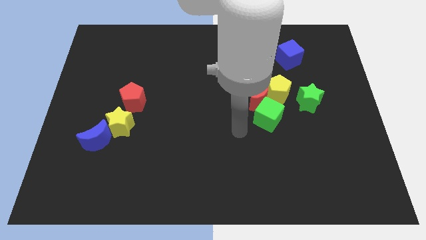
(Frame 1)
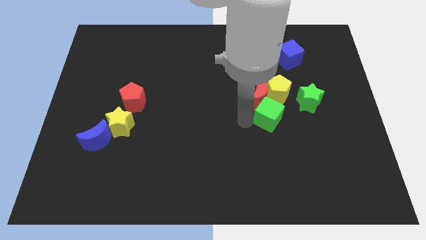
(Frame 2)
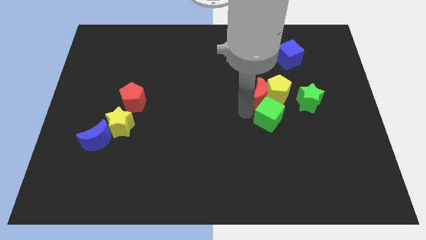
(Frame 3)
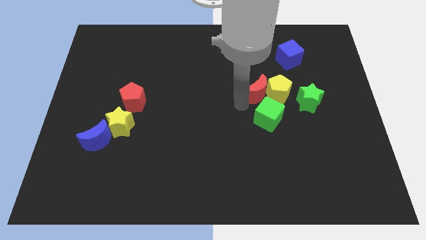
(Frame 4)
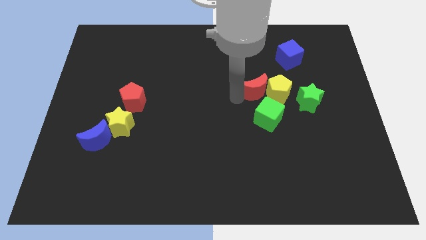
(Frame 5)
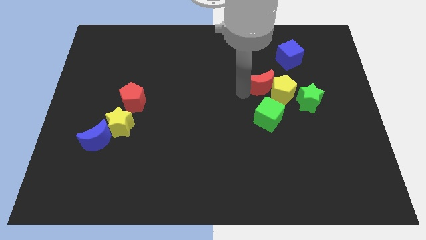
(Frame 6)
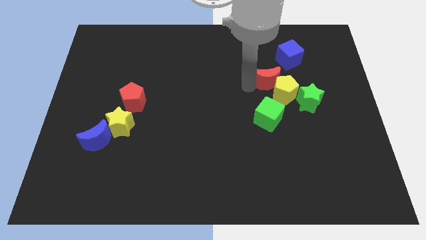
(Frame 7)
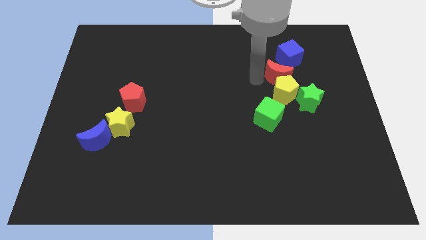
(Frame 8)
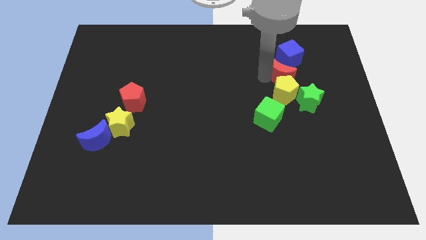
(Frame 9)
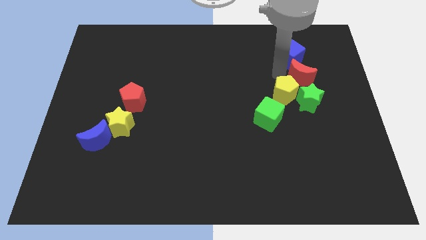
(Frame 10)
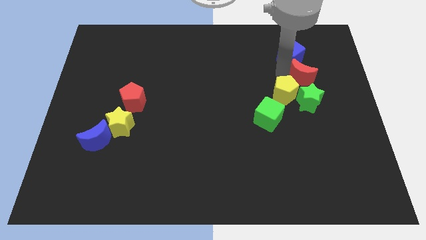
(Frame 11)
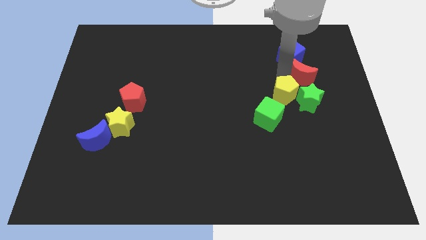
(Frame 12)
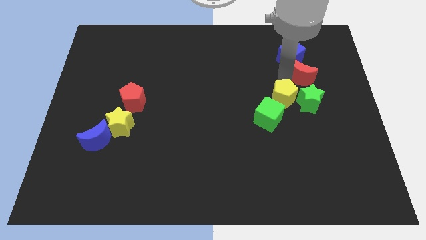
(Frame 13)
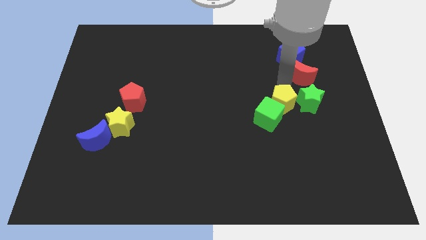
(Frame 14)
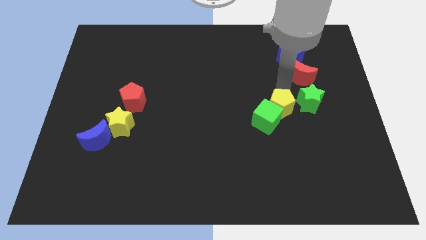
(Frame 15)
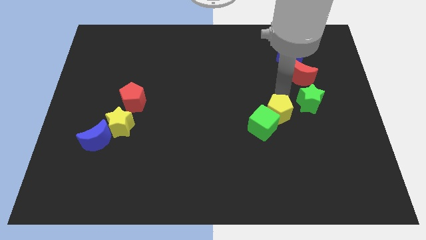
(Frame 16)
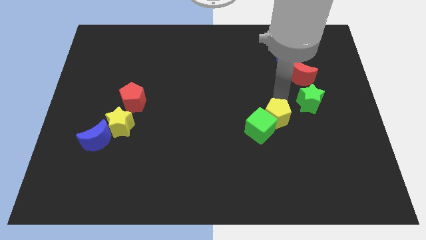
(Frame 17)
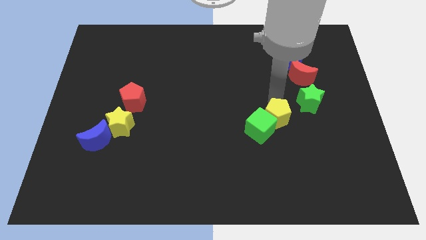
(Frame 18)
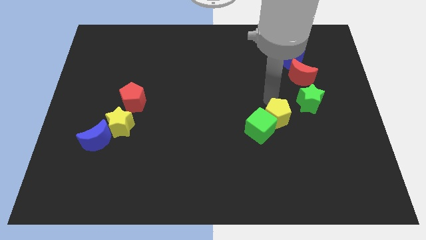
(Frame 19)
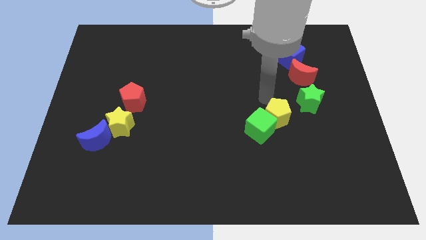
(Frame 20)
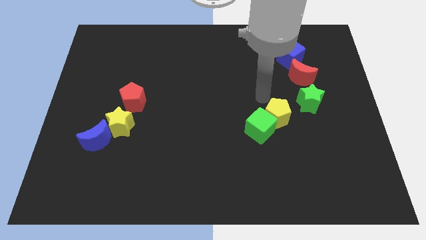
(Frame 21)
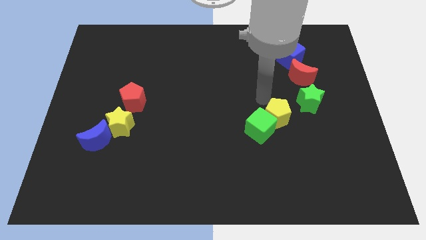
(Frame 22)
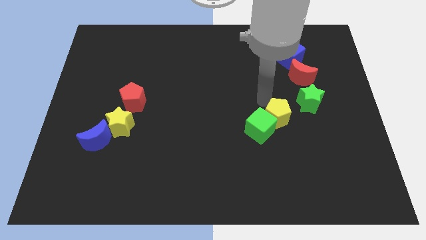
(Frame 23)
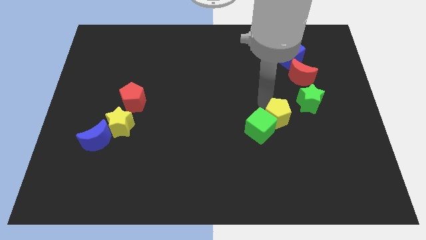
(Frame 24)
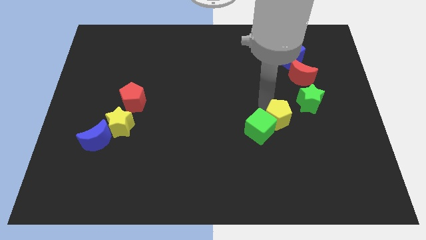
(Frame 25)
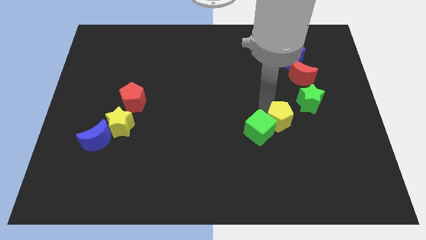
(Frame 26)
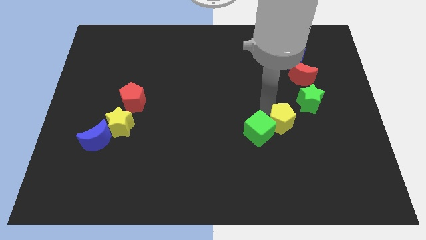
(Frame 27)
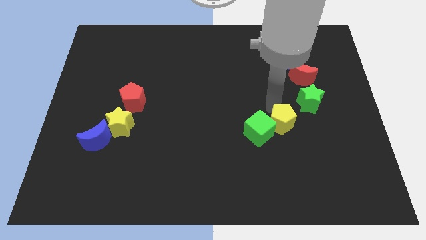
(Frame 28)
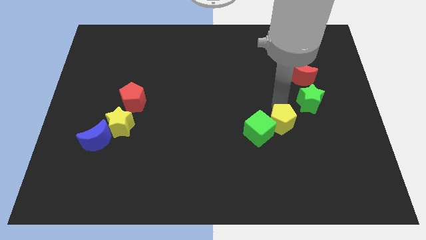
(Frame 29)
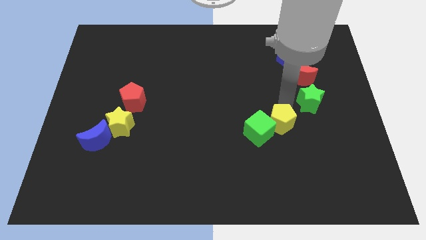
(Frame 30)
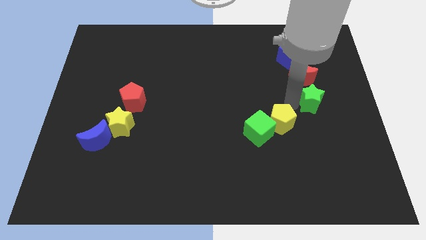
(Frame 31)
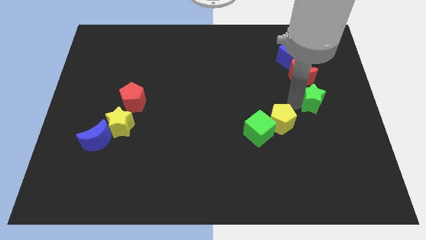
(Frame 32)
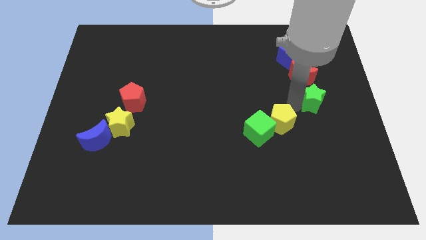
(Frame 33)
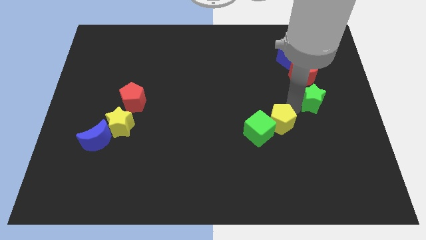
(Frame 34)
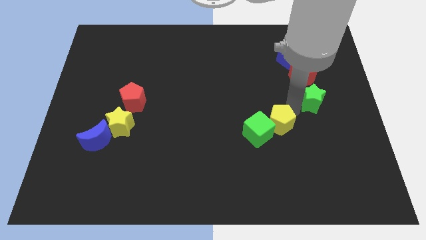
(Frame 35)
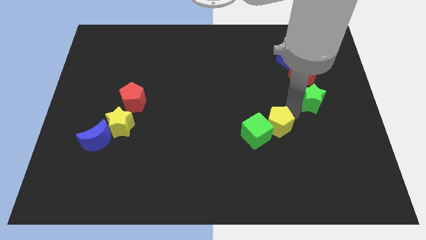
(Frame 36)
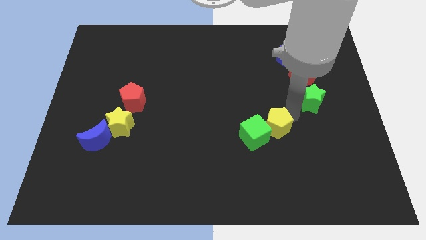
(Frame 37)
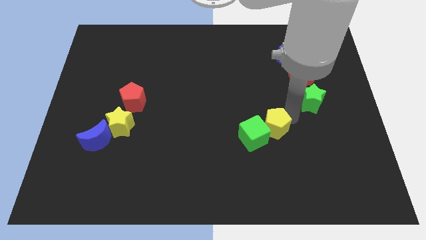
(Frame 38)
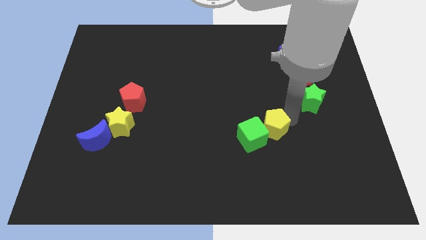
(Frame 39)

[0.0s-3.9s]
move the yellow pentagon slightly downwards and then to the left

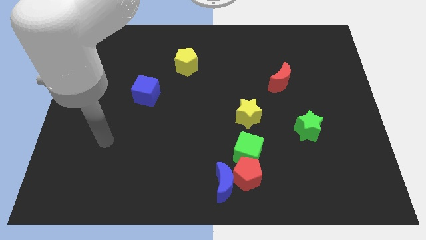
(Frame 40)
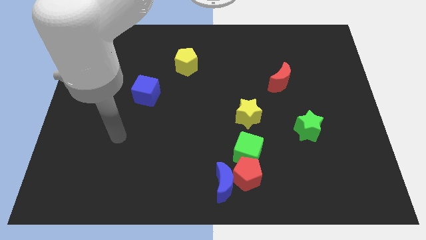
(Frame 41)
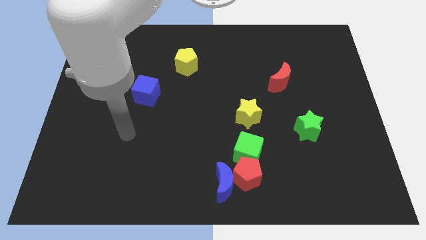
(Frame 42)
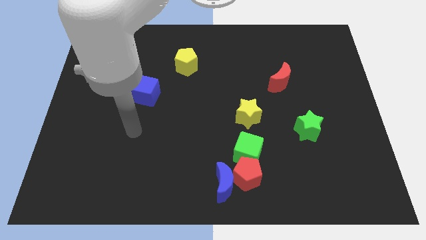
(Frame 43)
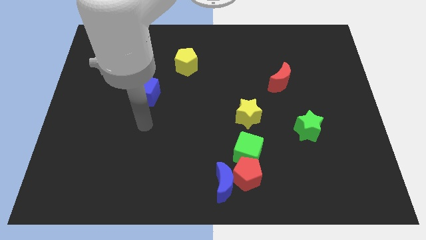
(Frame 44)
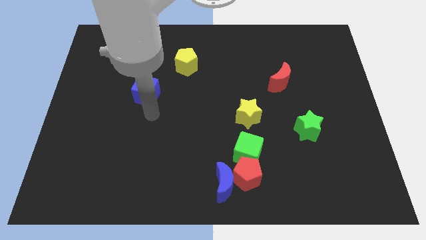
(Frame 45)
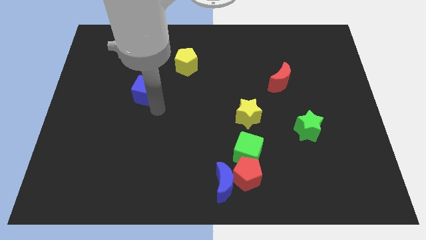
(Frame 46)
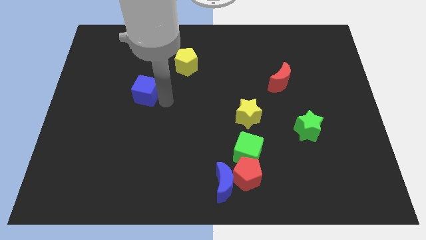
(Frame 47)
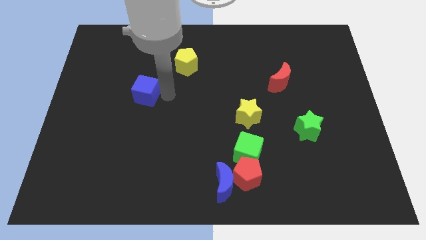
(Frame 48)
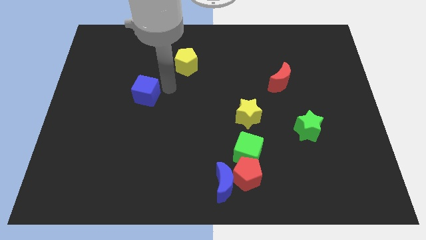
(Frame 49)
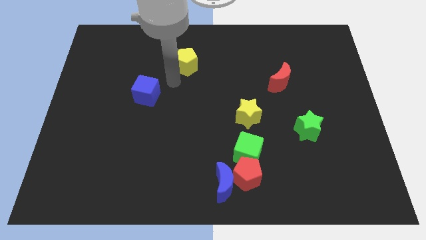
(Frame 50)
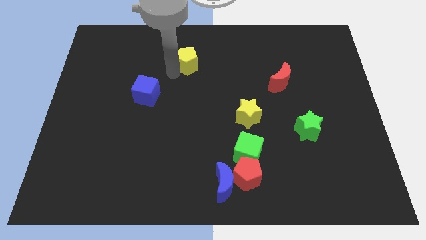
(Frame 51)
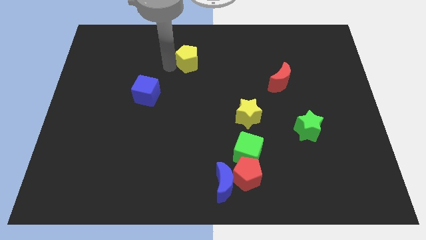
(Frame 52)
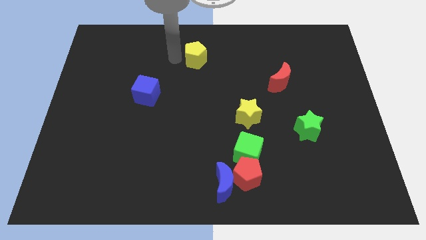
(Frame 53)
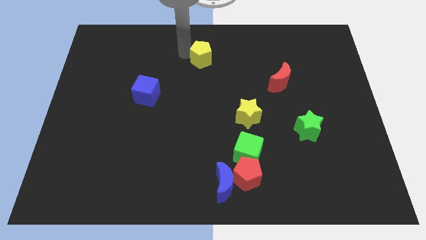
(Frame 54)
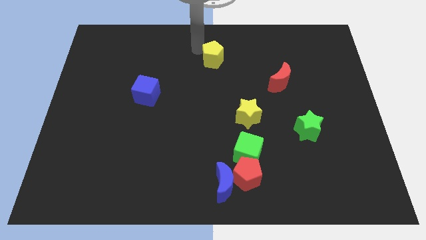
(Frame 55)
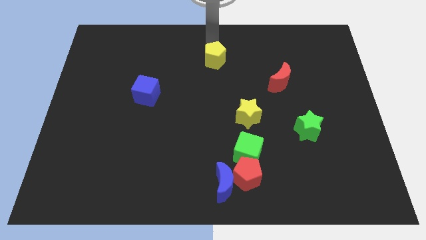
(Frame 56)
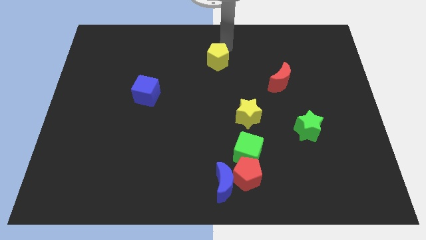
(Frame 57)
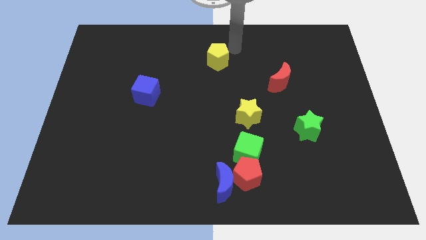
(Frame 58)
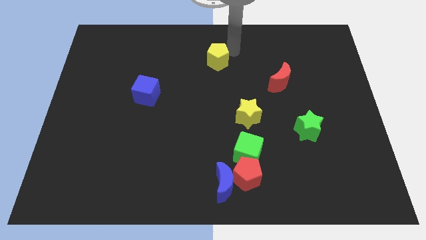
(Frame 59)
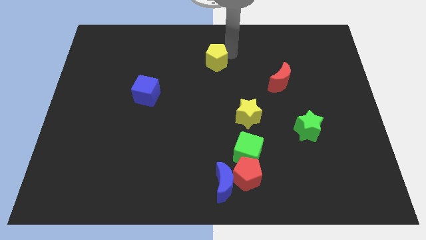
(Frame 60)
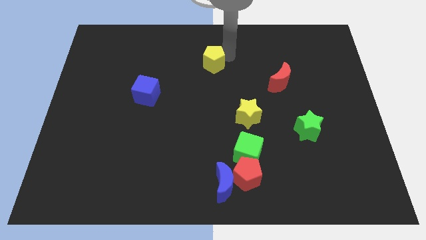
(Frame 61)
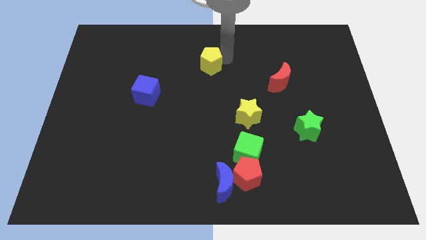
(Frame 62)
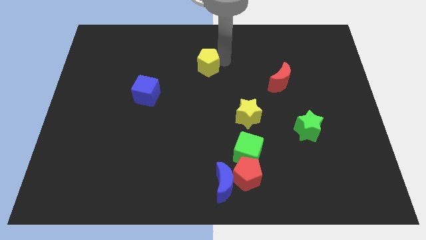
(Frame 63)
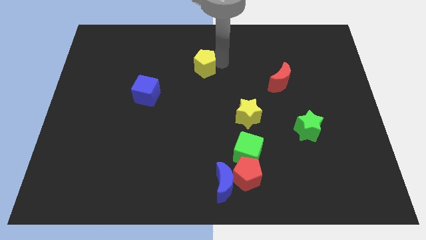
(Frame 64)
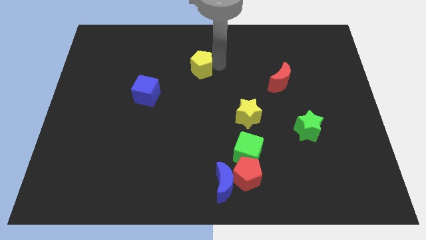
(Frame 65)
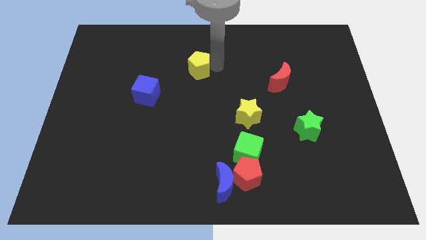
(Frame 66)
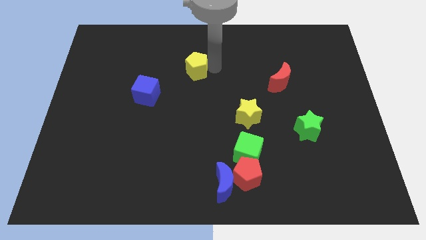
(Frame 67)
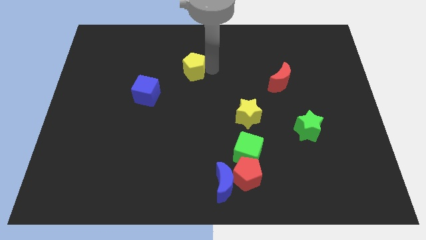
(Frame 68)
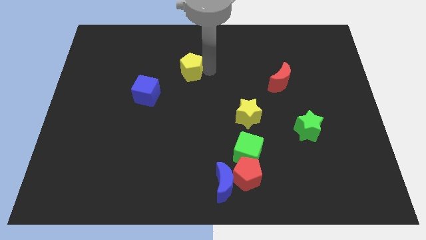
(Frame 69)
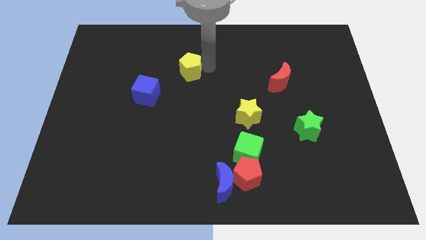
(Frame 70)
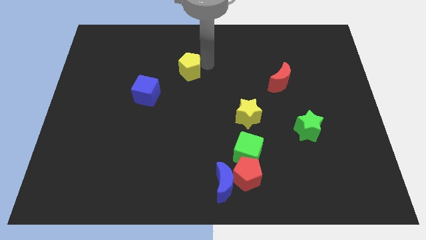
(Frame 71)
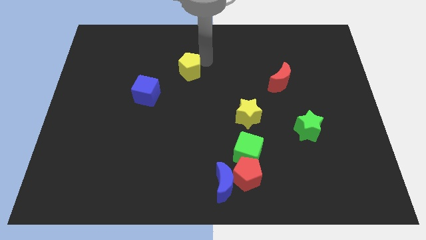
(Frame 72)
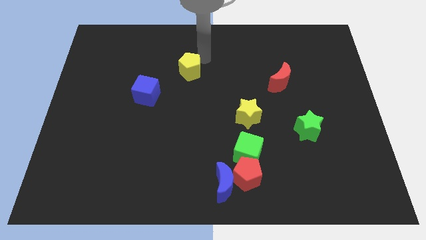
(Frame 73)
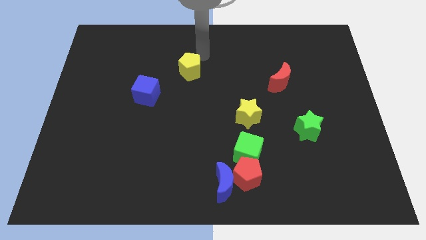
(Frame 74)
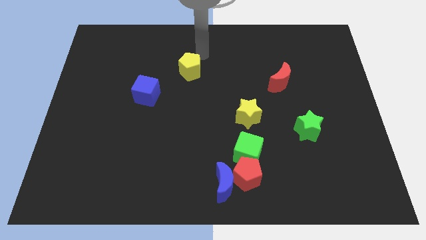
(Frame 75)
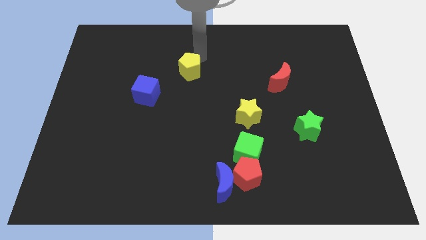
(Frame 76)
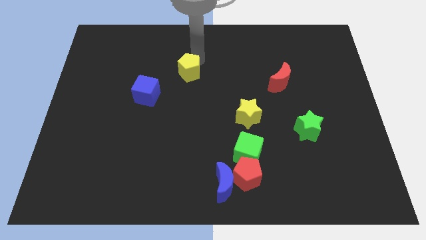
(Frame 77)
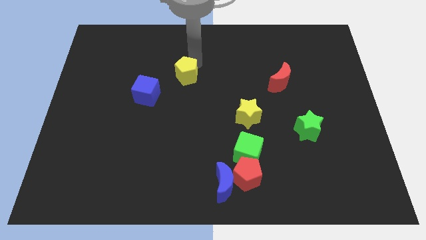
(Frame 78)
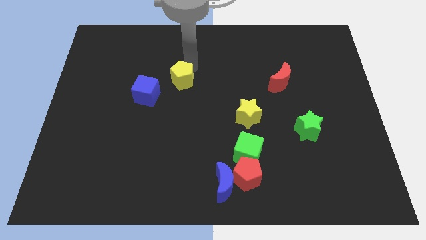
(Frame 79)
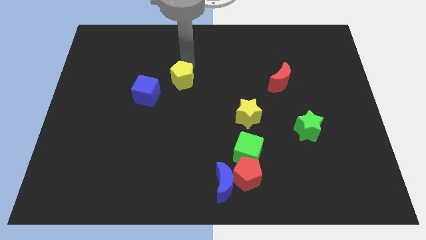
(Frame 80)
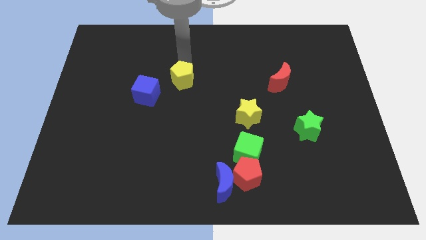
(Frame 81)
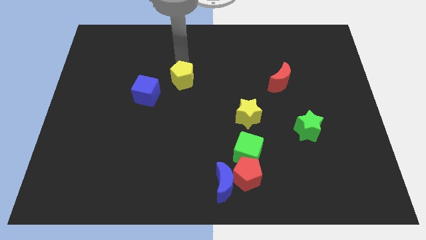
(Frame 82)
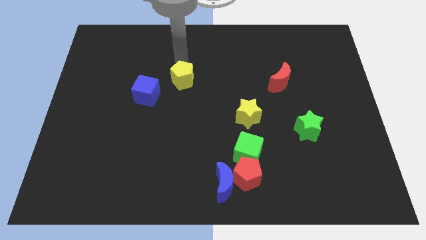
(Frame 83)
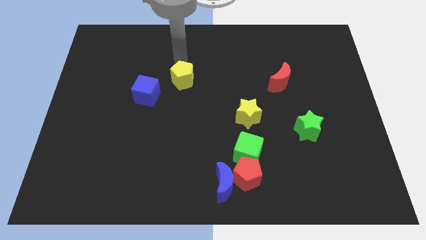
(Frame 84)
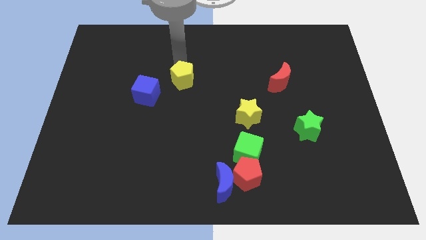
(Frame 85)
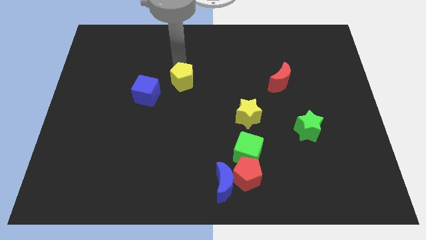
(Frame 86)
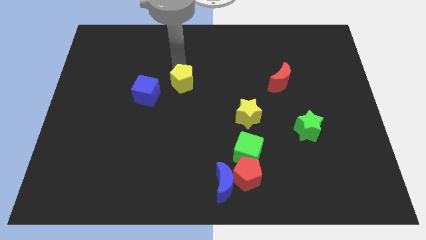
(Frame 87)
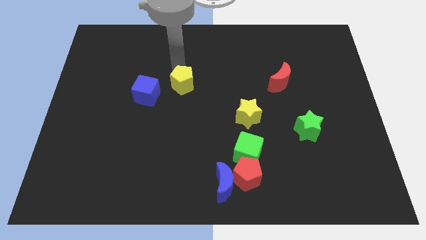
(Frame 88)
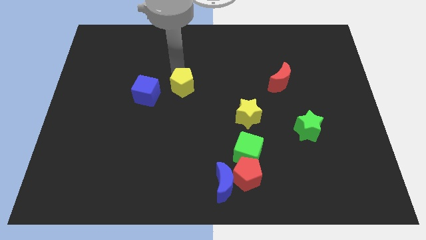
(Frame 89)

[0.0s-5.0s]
push the yellow pentagon downwards a little bit
